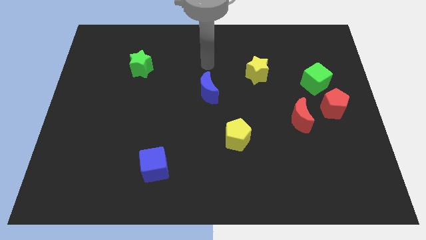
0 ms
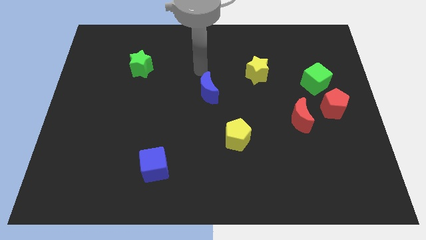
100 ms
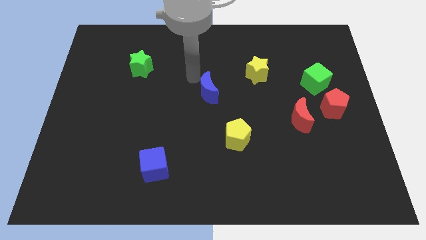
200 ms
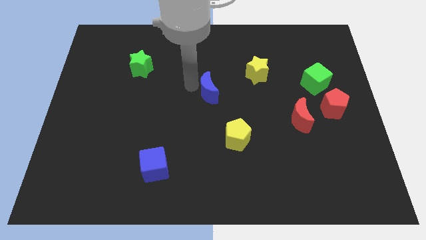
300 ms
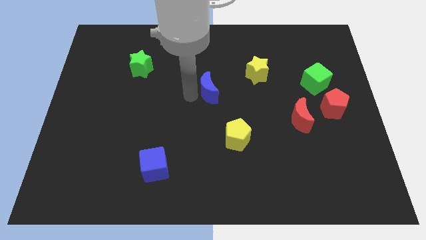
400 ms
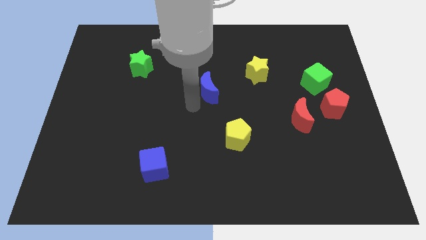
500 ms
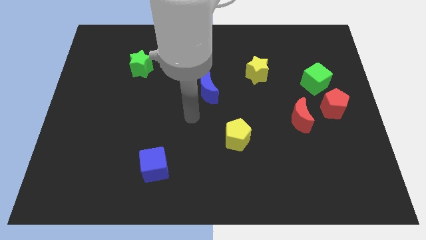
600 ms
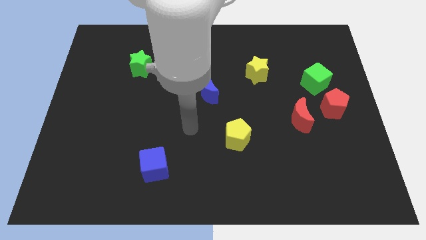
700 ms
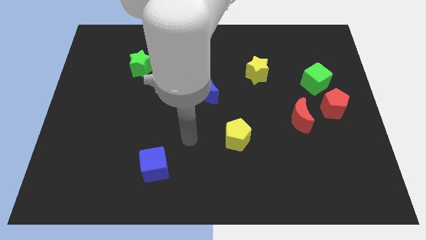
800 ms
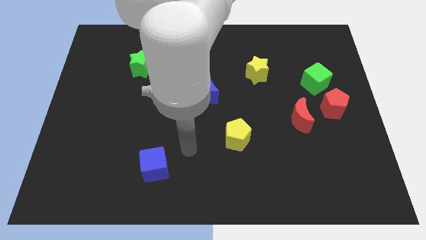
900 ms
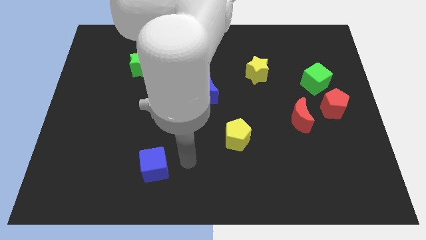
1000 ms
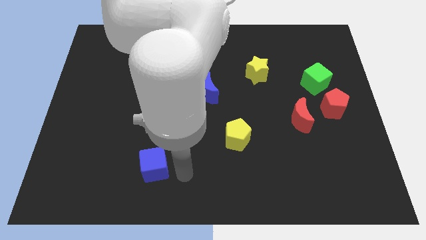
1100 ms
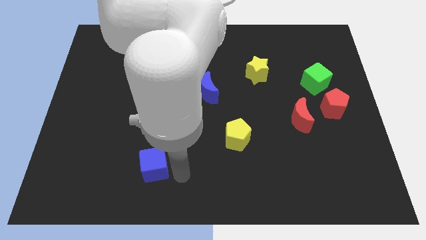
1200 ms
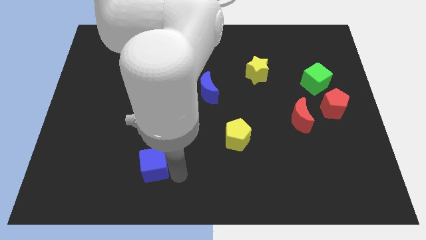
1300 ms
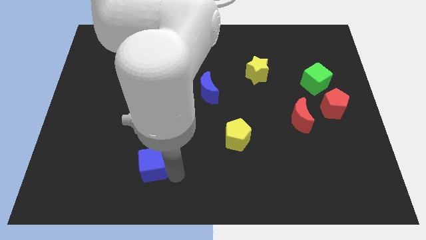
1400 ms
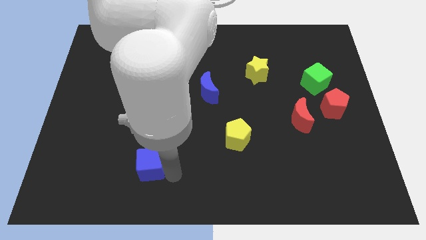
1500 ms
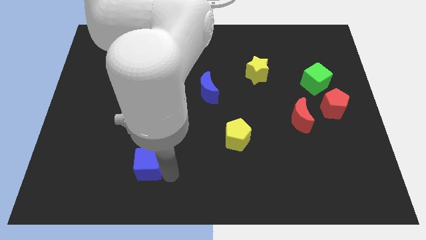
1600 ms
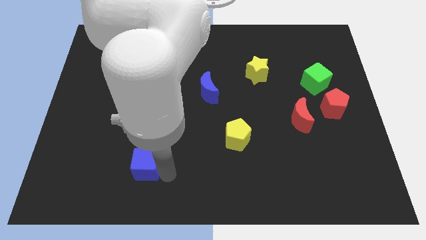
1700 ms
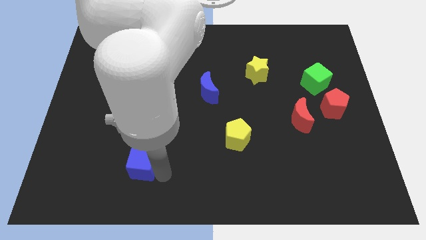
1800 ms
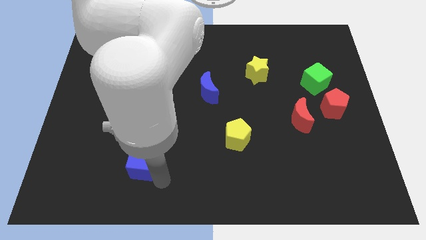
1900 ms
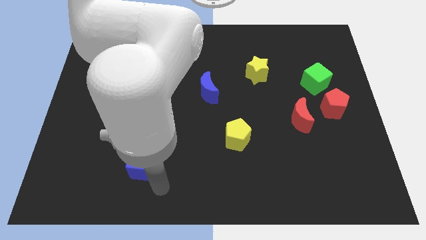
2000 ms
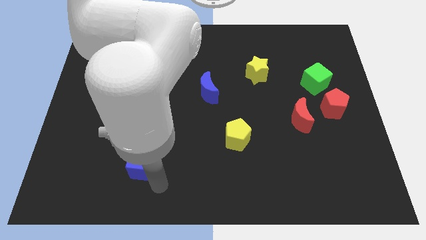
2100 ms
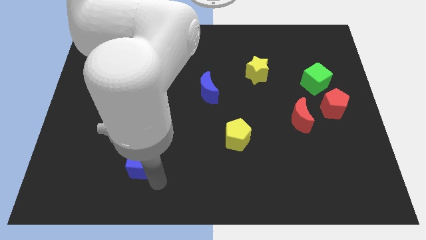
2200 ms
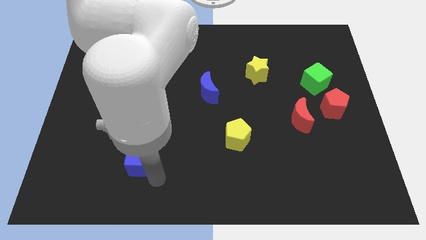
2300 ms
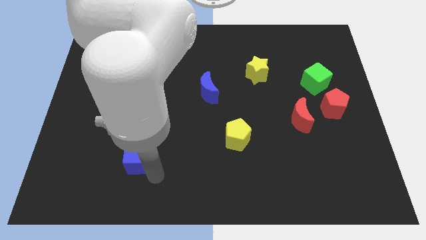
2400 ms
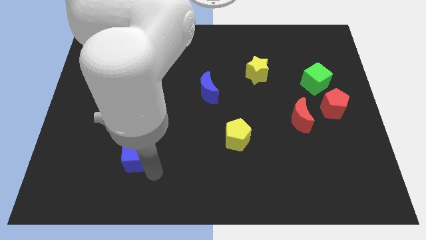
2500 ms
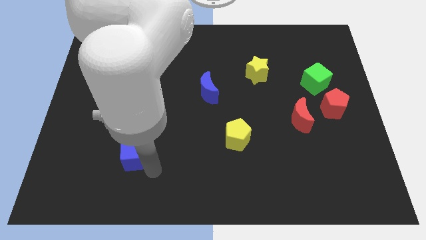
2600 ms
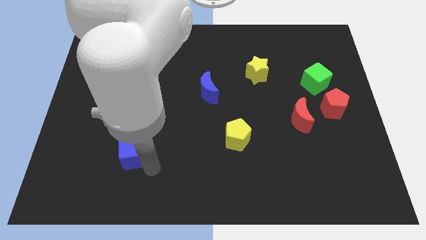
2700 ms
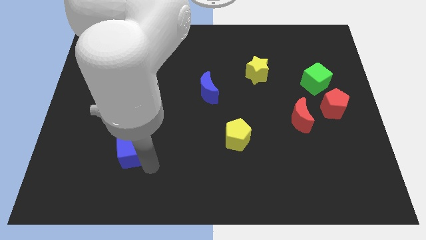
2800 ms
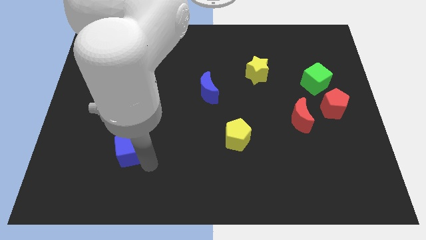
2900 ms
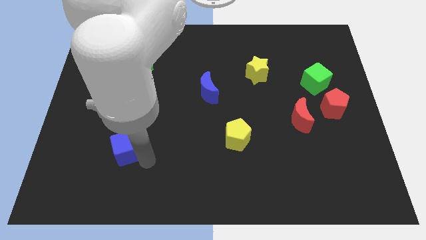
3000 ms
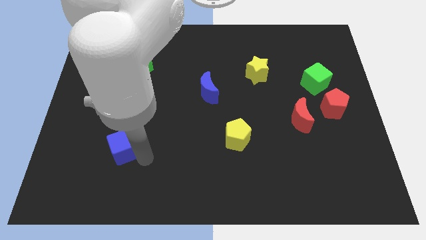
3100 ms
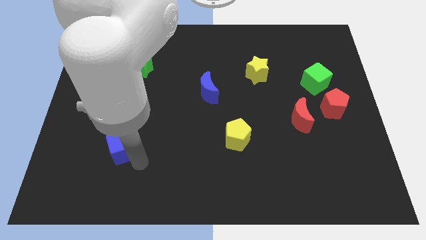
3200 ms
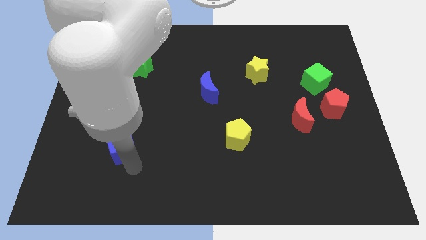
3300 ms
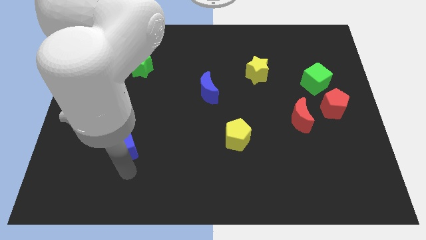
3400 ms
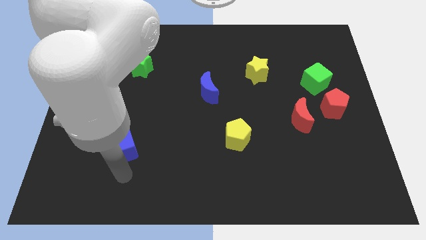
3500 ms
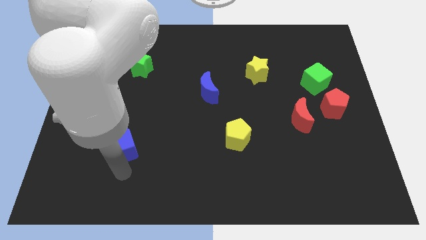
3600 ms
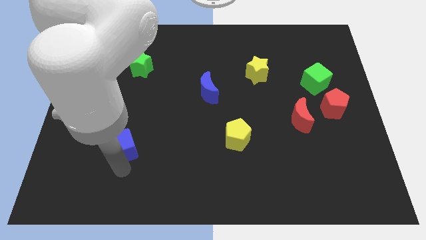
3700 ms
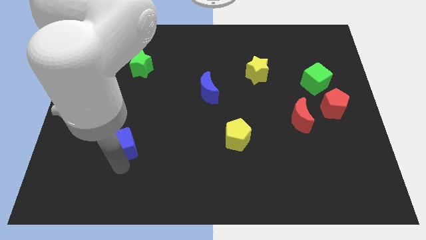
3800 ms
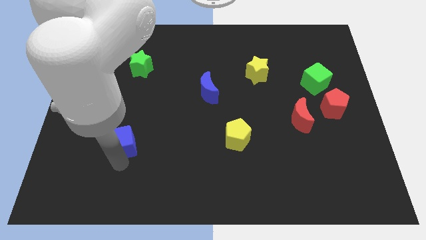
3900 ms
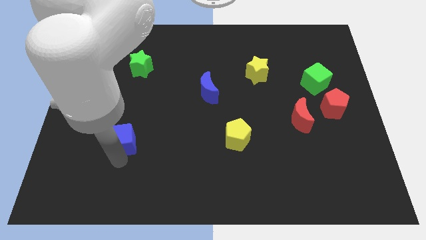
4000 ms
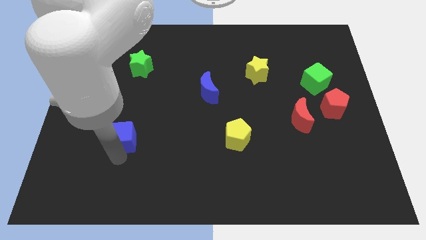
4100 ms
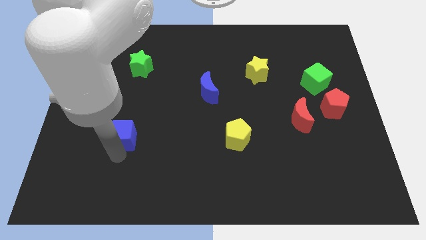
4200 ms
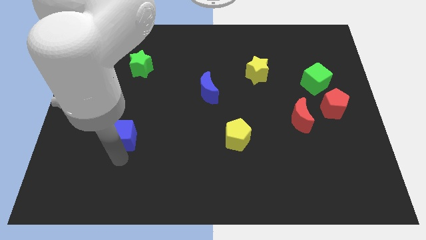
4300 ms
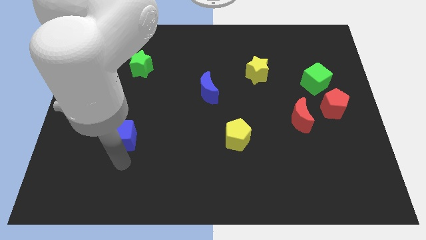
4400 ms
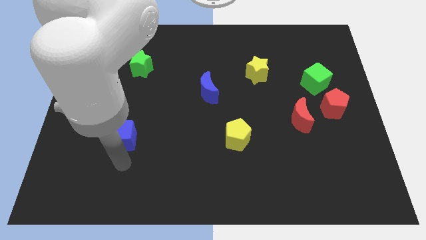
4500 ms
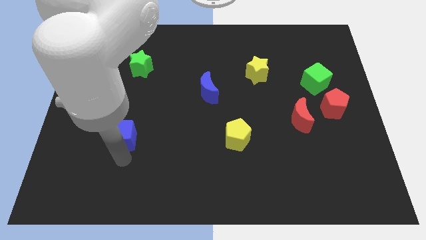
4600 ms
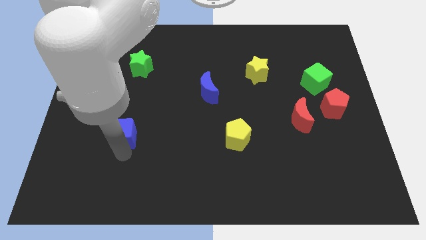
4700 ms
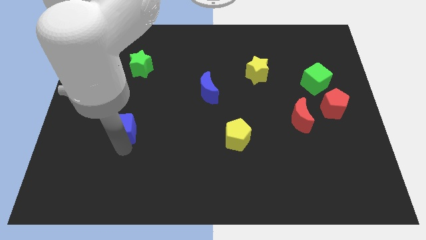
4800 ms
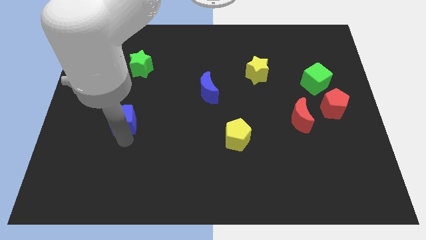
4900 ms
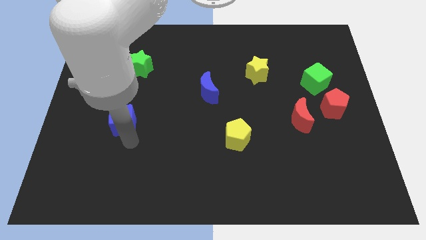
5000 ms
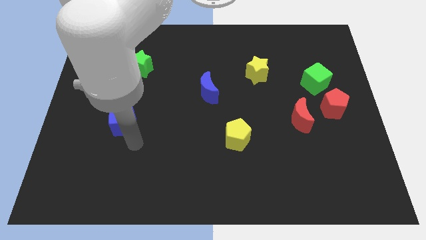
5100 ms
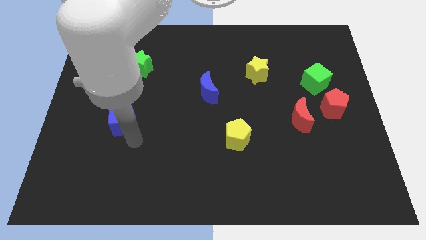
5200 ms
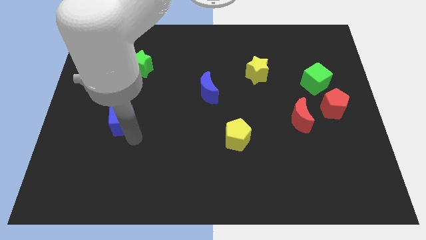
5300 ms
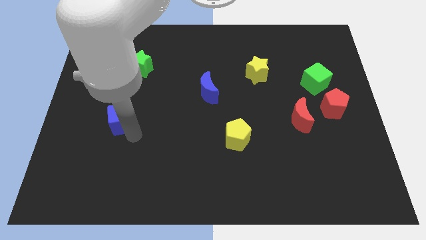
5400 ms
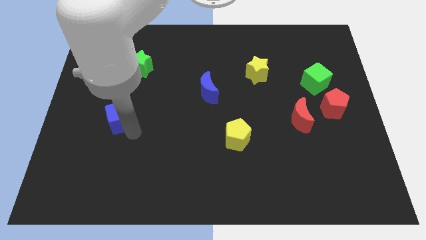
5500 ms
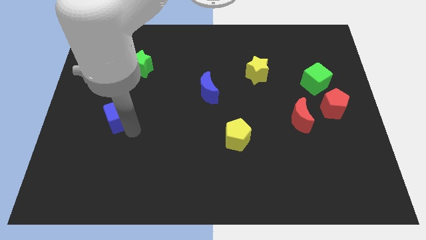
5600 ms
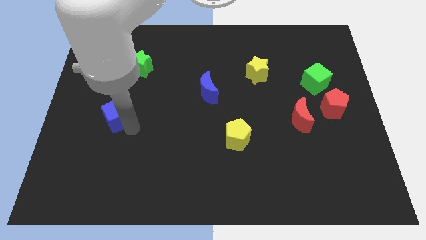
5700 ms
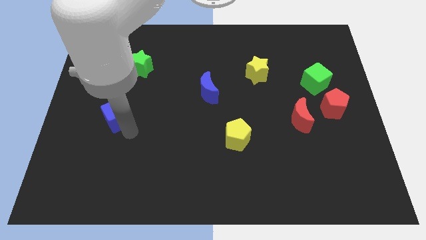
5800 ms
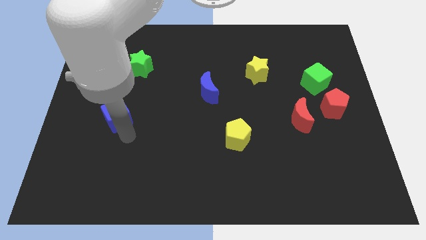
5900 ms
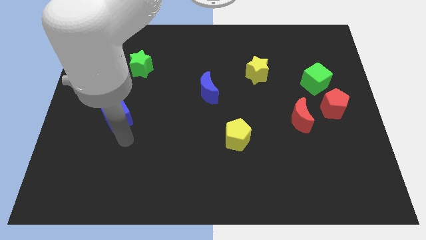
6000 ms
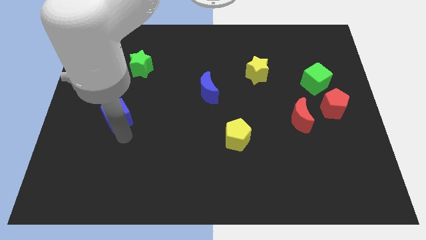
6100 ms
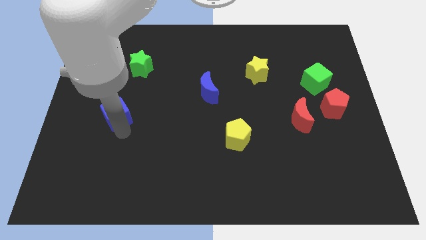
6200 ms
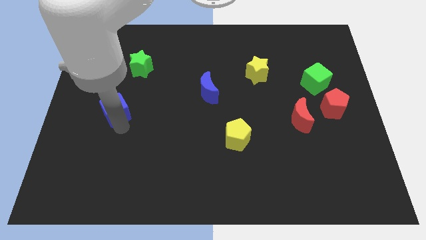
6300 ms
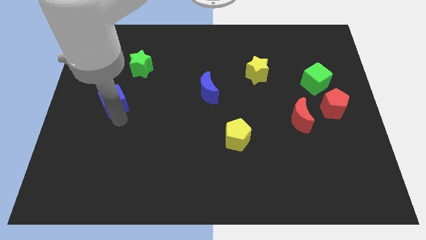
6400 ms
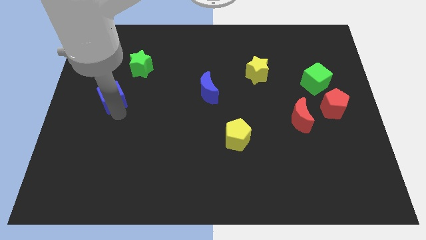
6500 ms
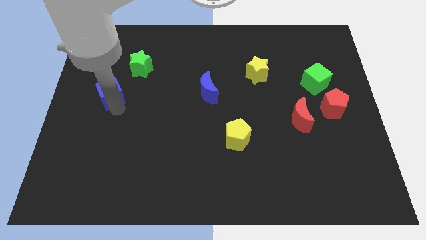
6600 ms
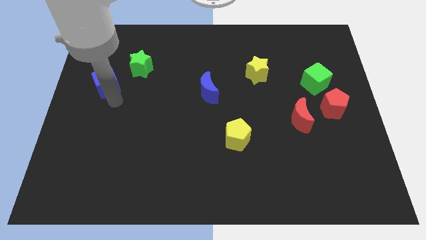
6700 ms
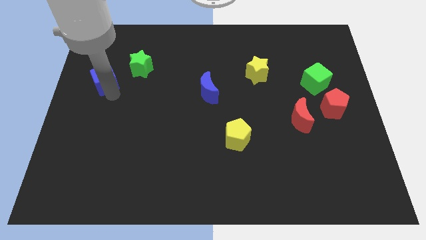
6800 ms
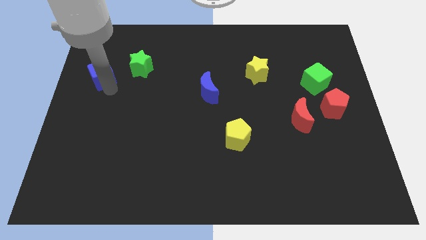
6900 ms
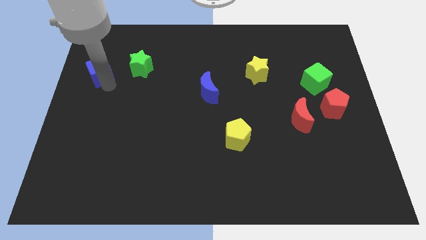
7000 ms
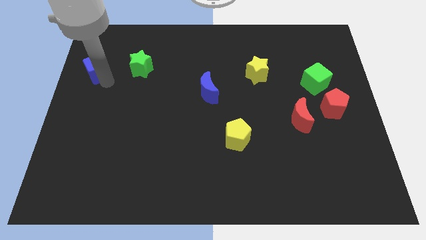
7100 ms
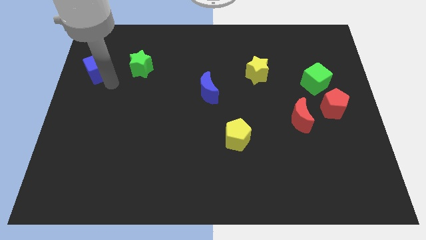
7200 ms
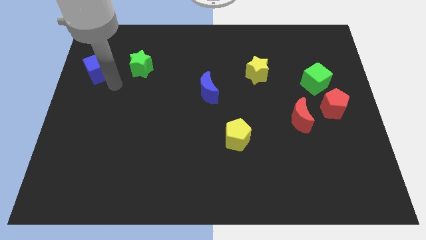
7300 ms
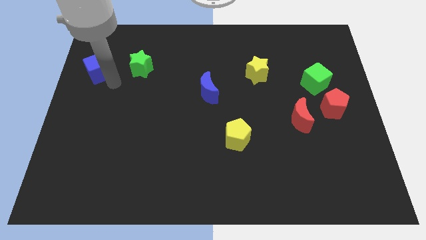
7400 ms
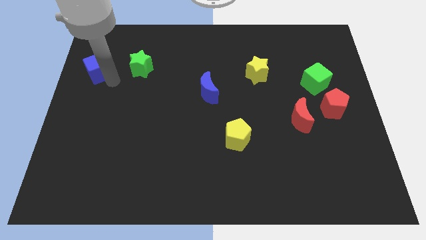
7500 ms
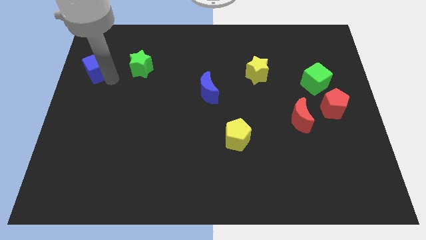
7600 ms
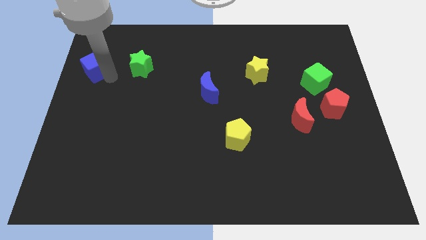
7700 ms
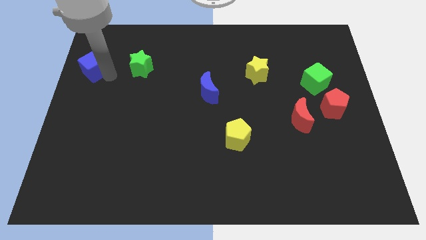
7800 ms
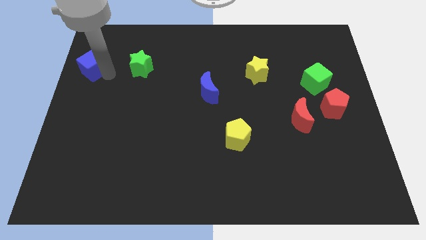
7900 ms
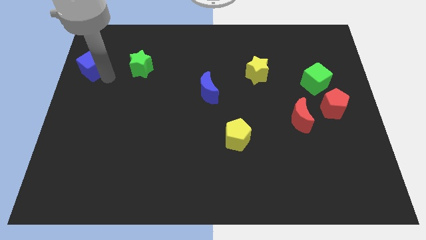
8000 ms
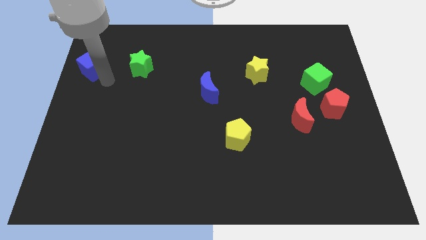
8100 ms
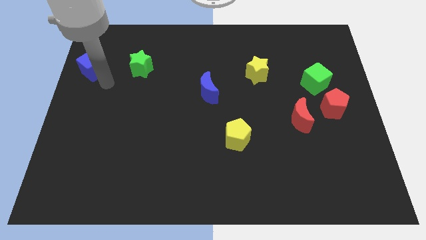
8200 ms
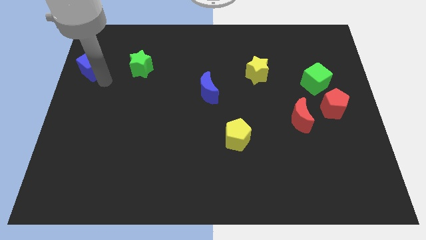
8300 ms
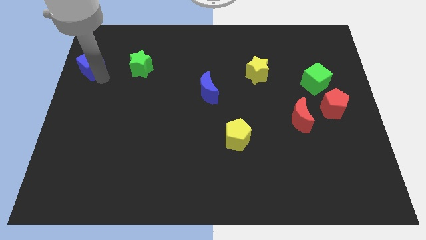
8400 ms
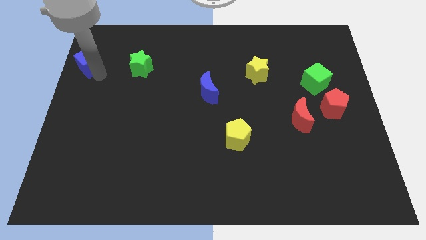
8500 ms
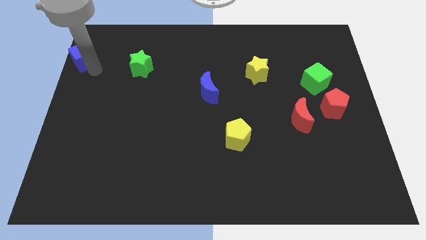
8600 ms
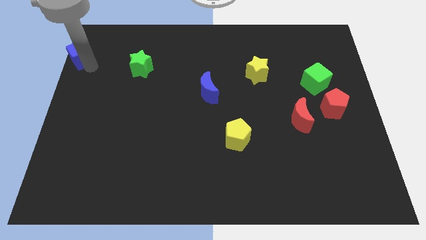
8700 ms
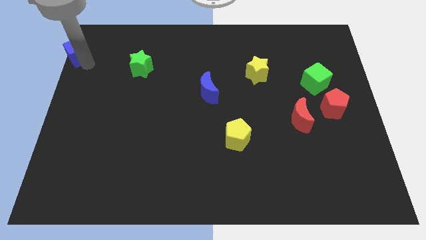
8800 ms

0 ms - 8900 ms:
push the blue cube to the top left corner
